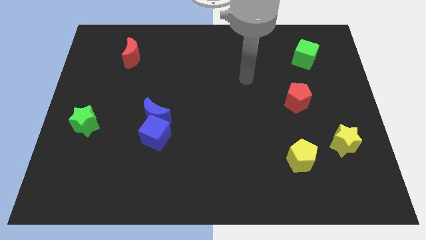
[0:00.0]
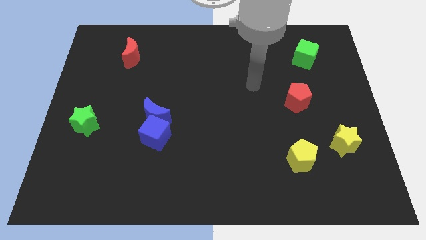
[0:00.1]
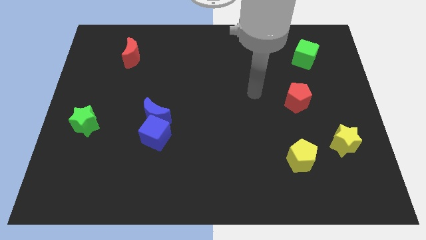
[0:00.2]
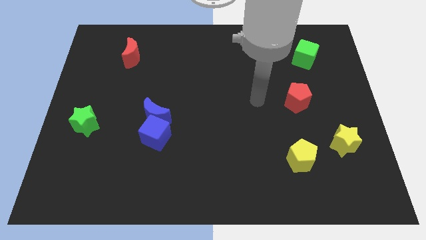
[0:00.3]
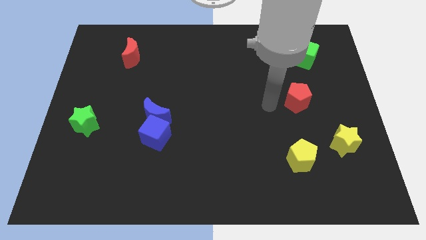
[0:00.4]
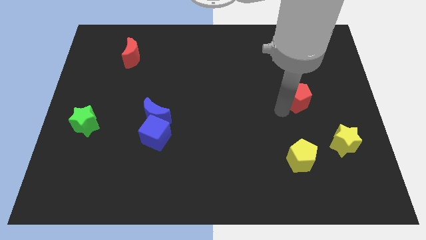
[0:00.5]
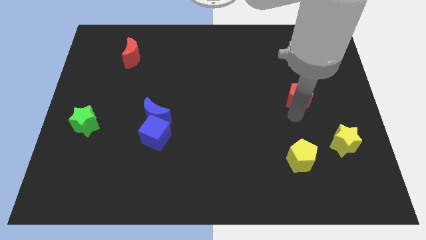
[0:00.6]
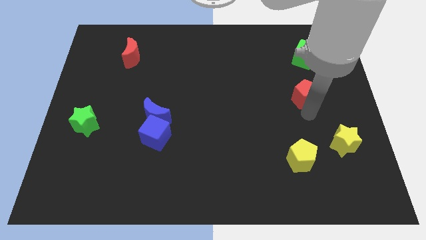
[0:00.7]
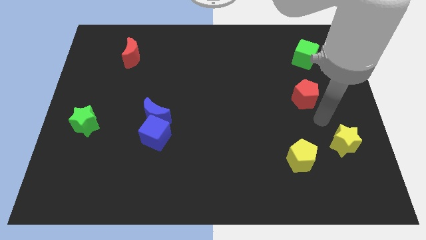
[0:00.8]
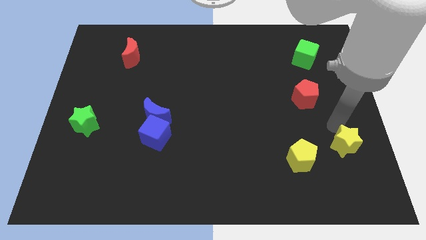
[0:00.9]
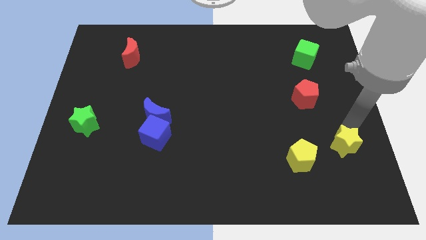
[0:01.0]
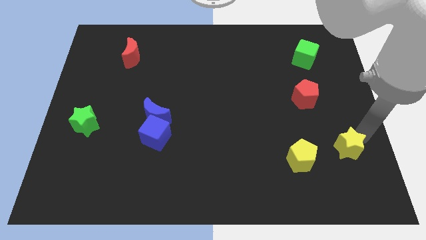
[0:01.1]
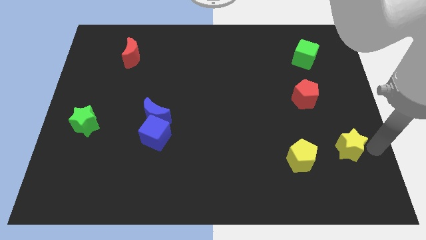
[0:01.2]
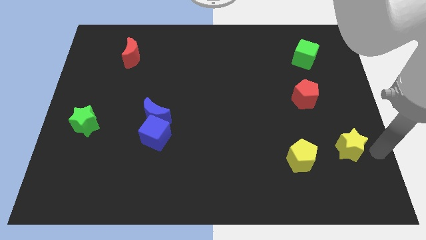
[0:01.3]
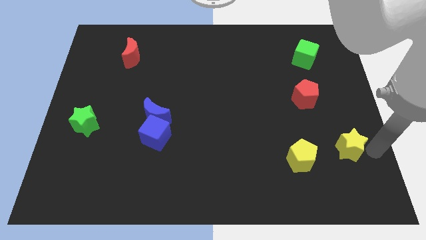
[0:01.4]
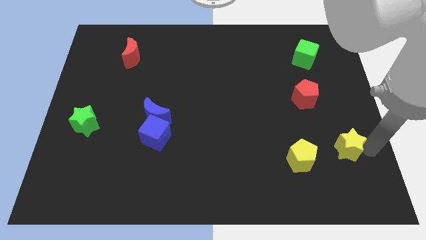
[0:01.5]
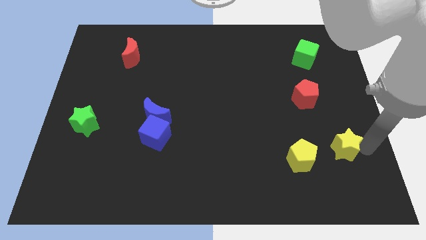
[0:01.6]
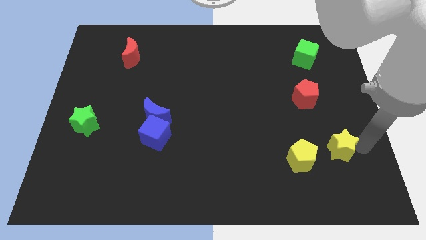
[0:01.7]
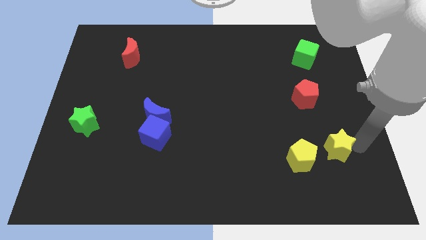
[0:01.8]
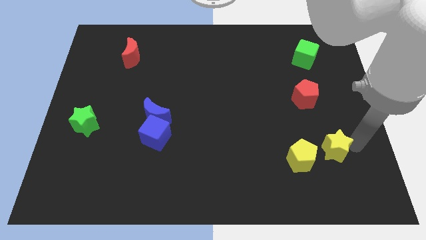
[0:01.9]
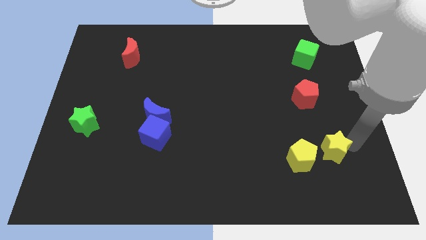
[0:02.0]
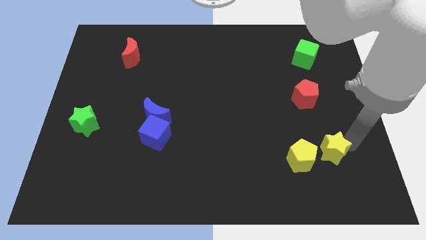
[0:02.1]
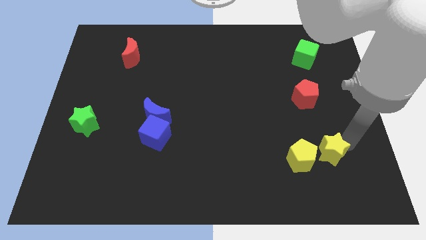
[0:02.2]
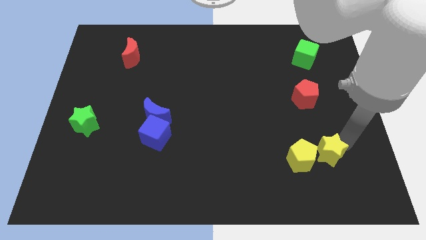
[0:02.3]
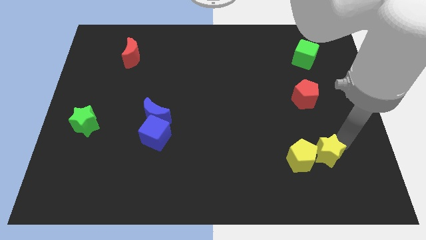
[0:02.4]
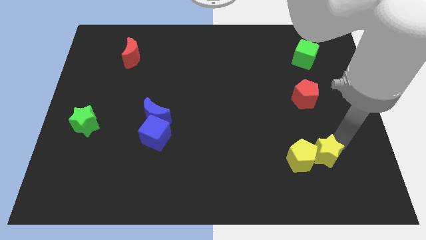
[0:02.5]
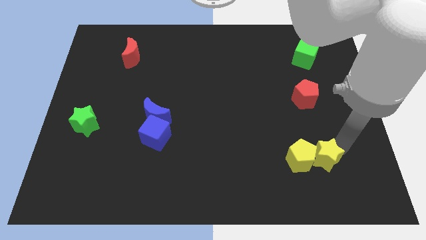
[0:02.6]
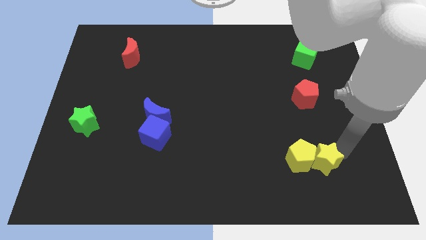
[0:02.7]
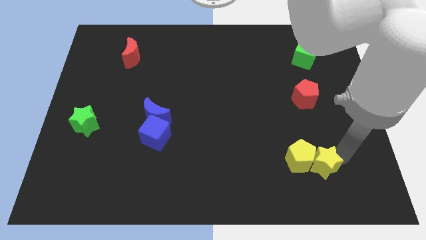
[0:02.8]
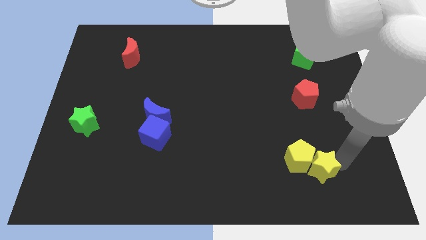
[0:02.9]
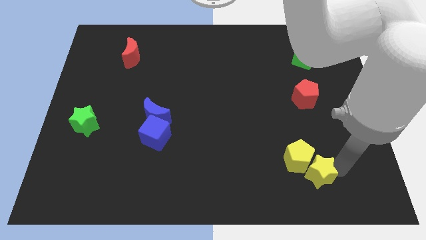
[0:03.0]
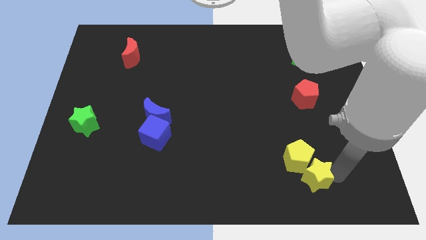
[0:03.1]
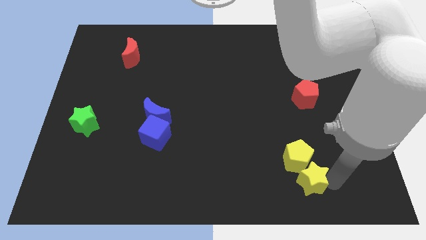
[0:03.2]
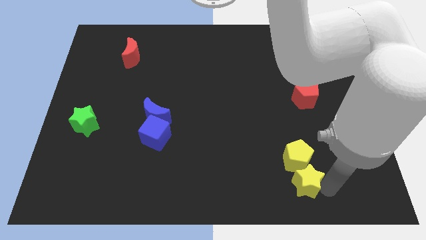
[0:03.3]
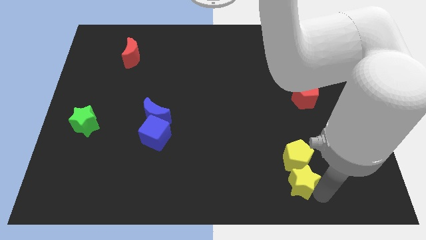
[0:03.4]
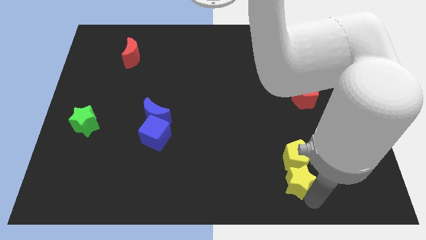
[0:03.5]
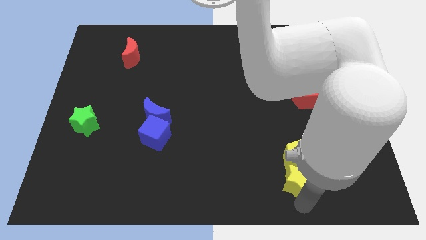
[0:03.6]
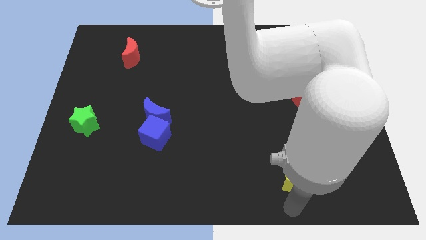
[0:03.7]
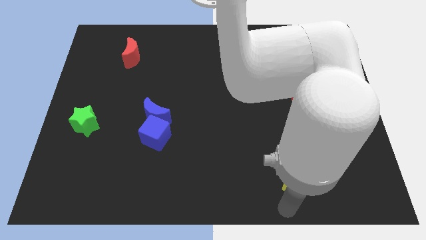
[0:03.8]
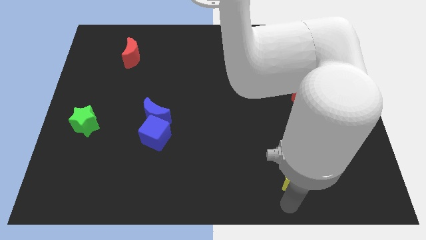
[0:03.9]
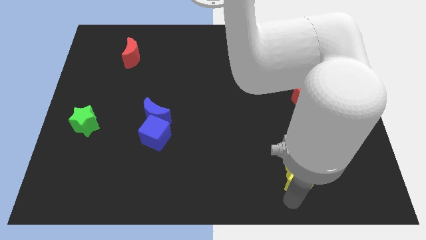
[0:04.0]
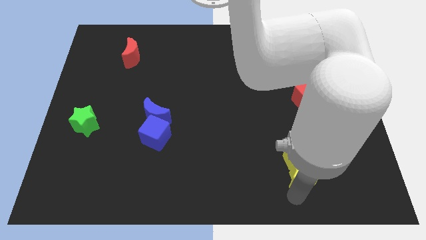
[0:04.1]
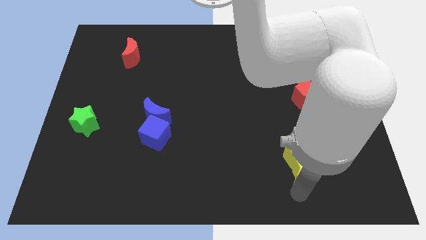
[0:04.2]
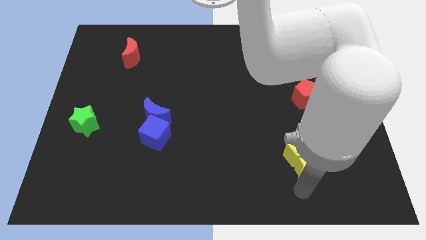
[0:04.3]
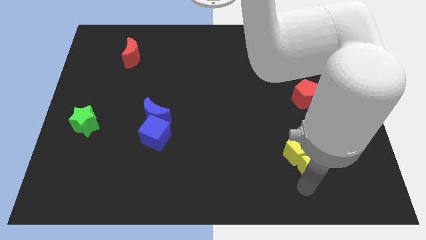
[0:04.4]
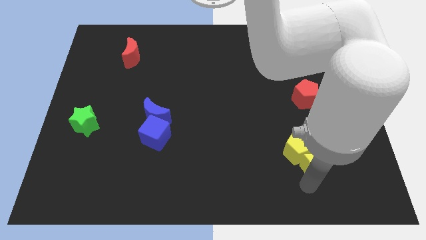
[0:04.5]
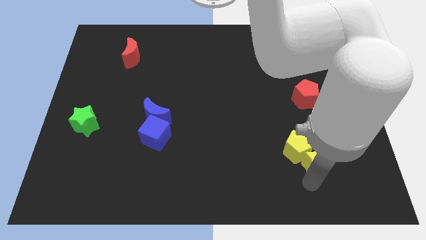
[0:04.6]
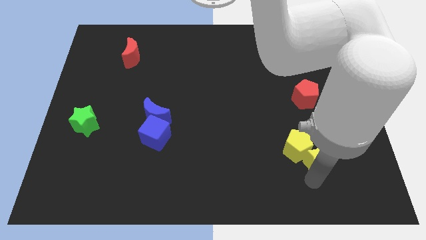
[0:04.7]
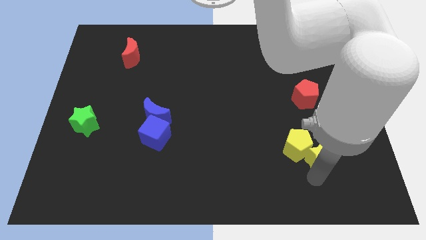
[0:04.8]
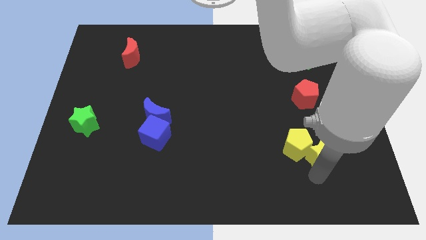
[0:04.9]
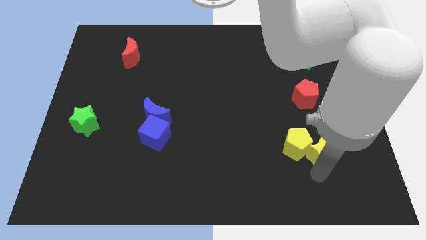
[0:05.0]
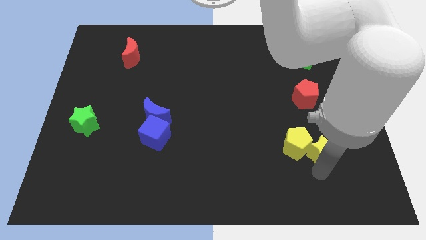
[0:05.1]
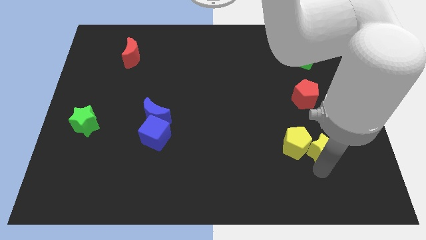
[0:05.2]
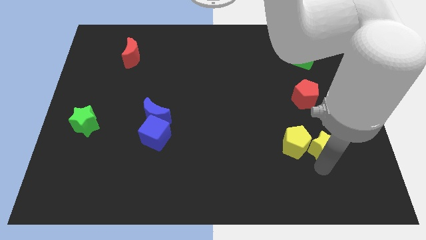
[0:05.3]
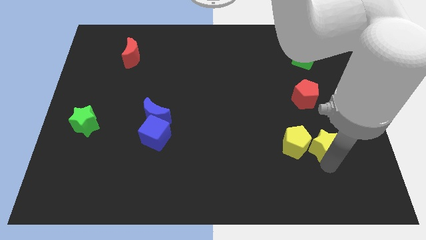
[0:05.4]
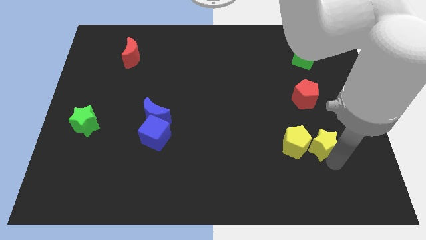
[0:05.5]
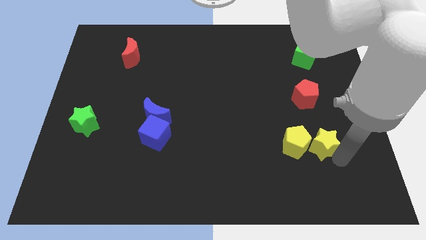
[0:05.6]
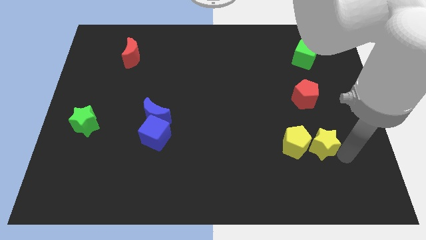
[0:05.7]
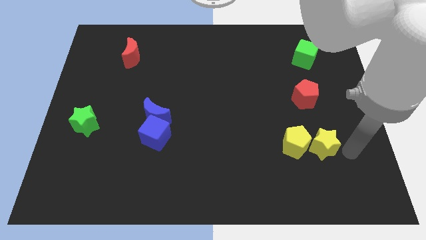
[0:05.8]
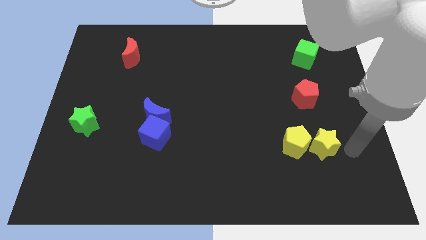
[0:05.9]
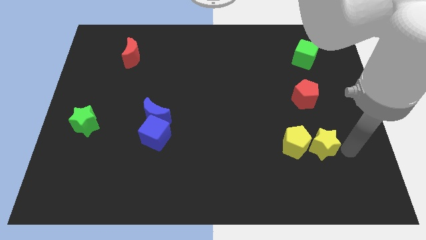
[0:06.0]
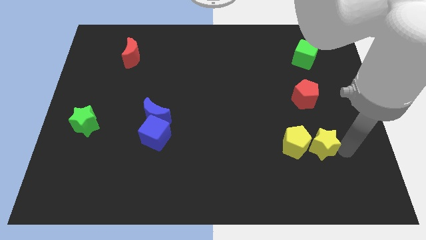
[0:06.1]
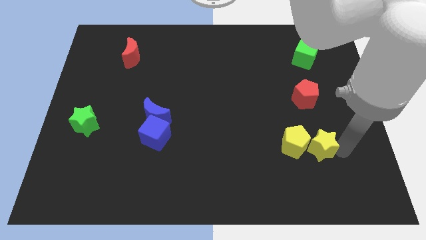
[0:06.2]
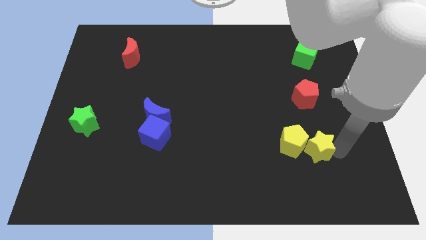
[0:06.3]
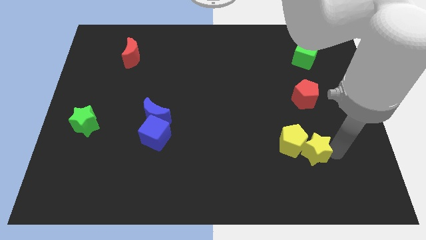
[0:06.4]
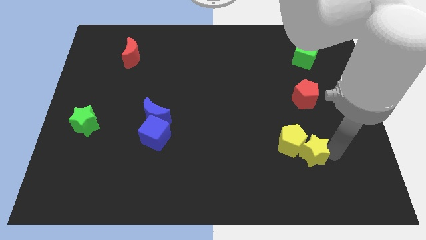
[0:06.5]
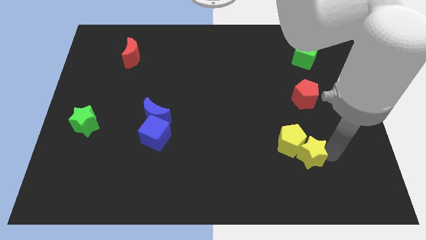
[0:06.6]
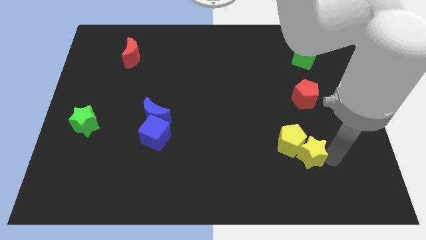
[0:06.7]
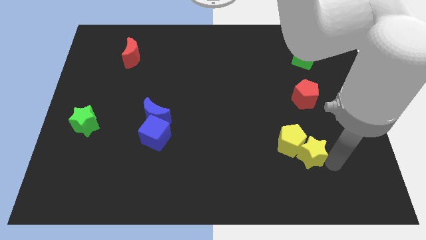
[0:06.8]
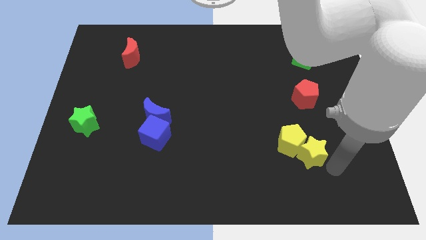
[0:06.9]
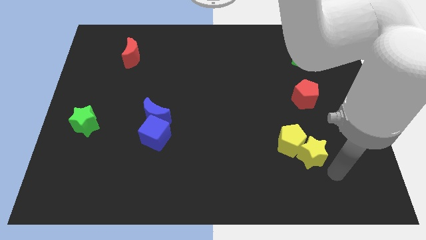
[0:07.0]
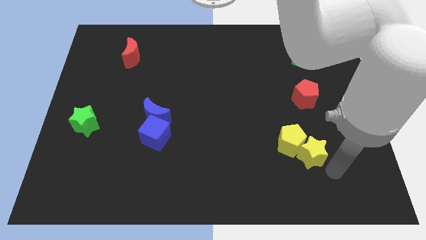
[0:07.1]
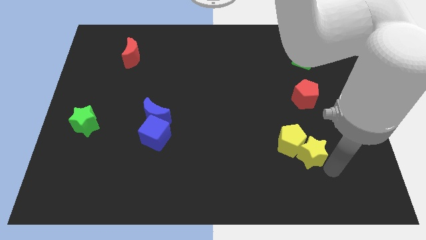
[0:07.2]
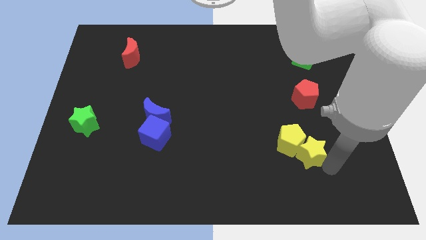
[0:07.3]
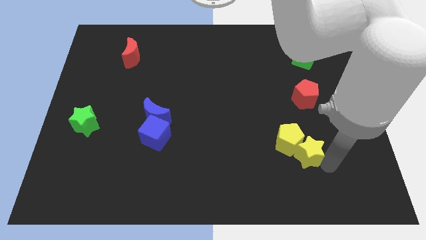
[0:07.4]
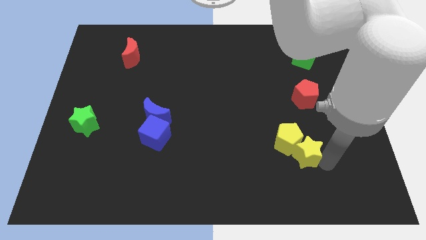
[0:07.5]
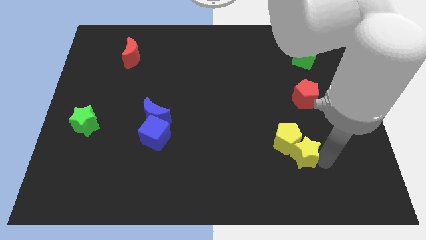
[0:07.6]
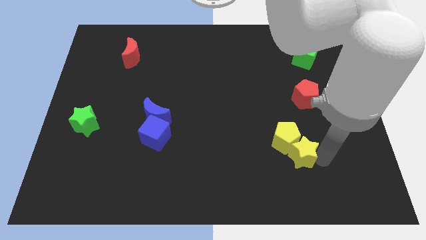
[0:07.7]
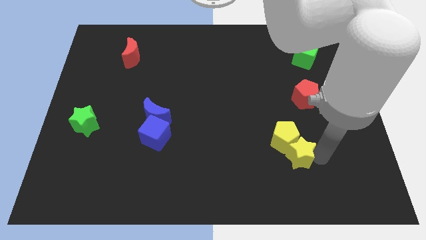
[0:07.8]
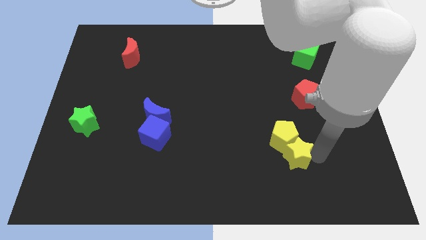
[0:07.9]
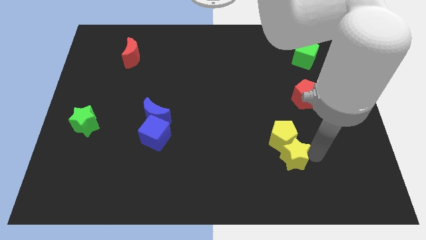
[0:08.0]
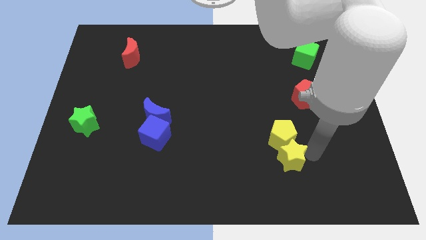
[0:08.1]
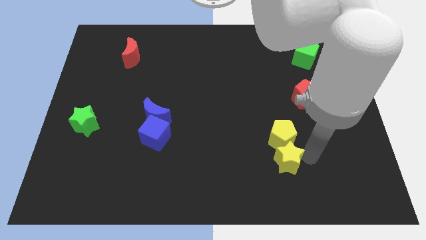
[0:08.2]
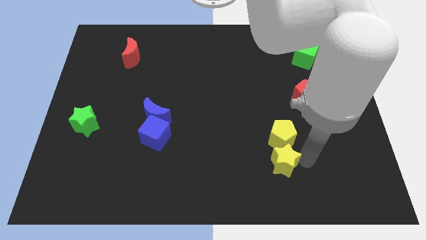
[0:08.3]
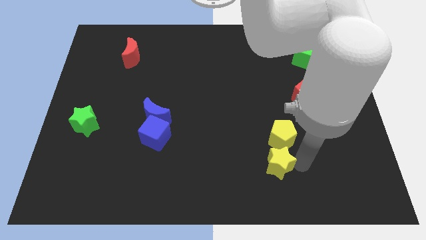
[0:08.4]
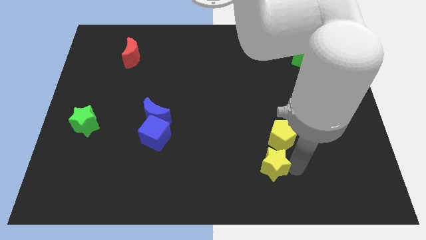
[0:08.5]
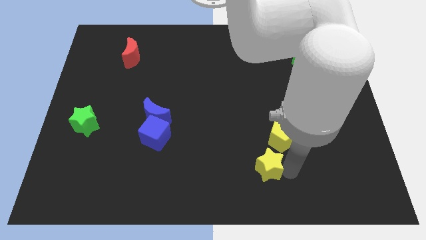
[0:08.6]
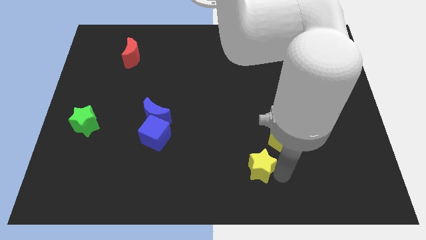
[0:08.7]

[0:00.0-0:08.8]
put the yellow star to the bottom side
